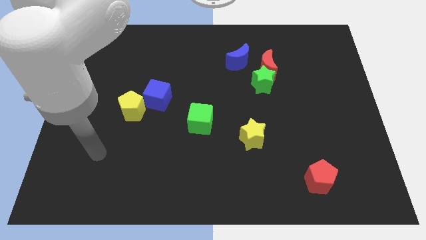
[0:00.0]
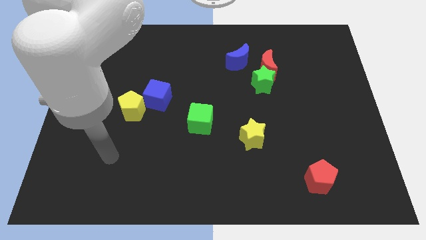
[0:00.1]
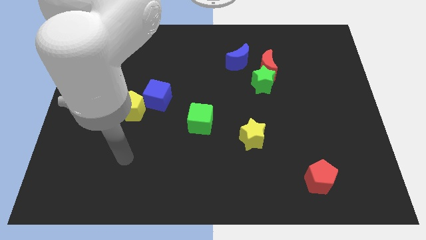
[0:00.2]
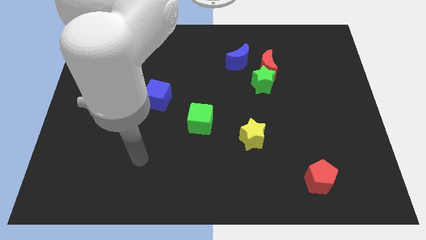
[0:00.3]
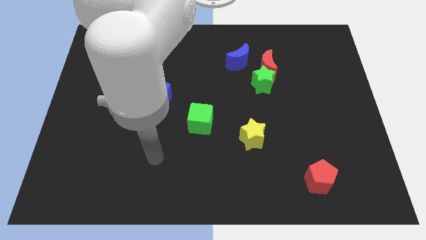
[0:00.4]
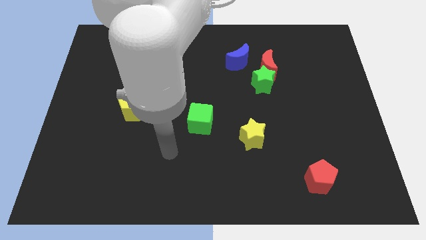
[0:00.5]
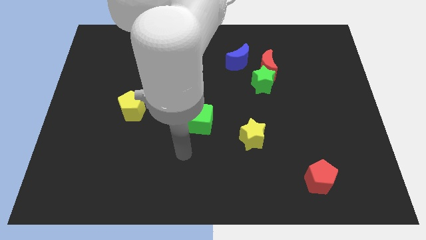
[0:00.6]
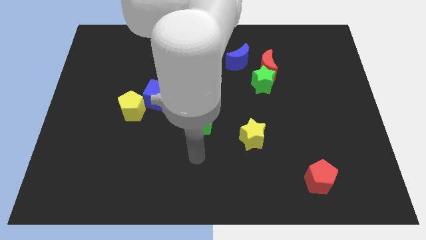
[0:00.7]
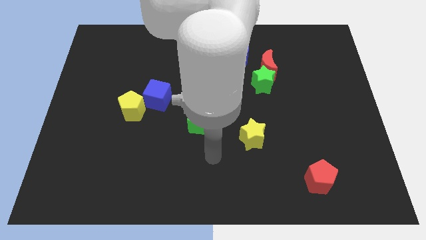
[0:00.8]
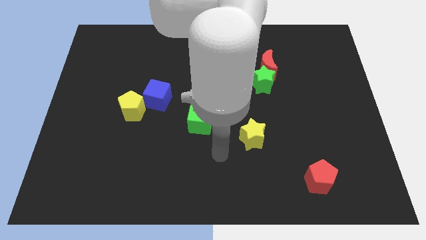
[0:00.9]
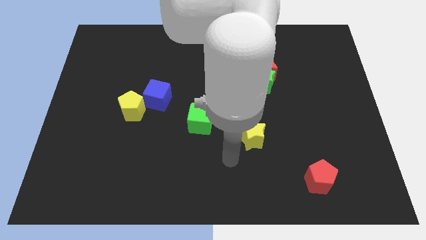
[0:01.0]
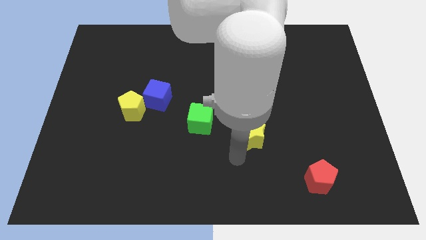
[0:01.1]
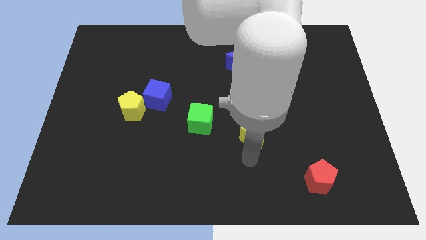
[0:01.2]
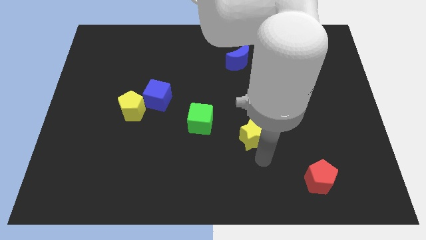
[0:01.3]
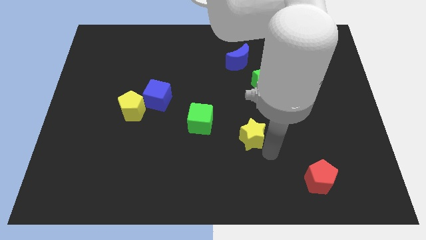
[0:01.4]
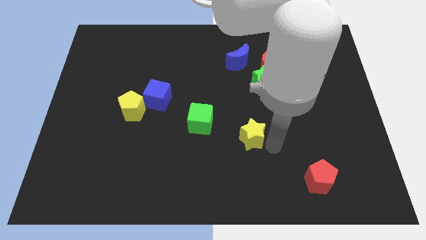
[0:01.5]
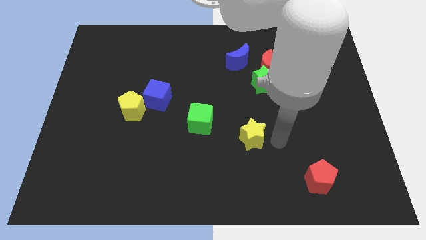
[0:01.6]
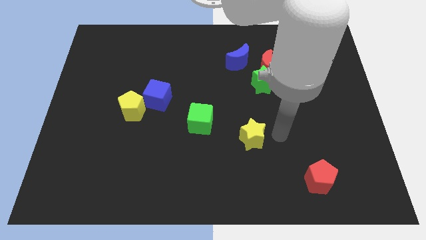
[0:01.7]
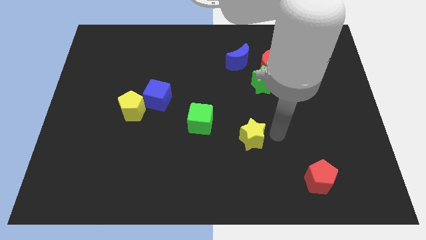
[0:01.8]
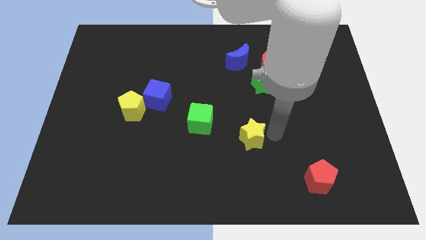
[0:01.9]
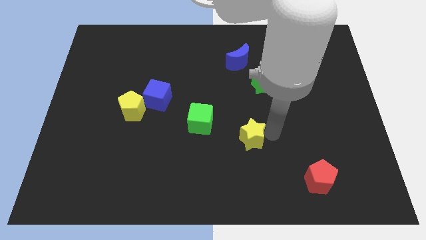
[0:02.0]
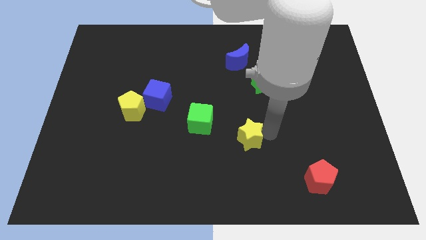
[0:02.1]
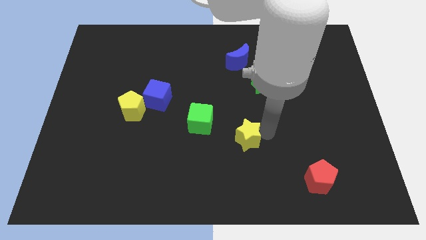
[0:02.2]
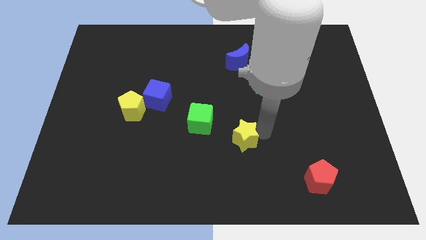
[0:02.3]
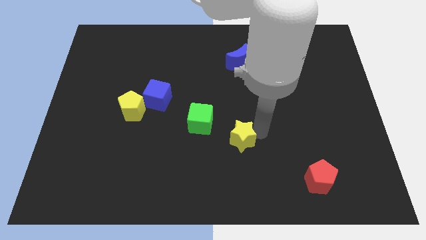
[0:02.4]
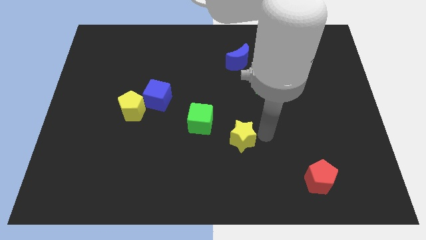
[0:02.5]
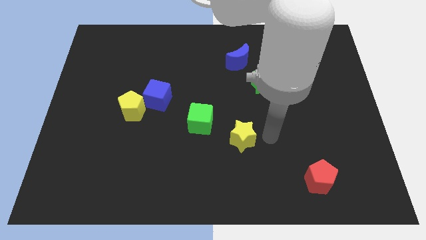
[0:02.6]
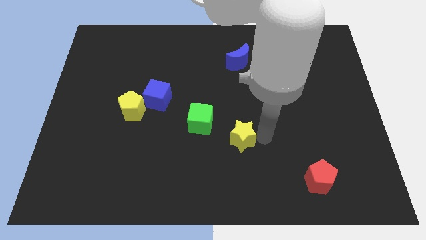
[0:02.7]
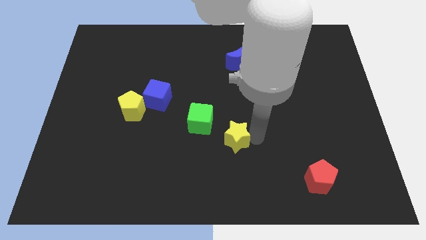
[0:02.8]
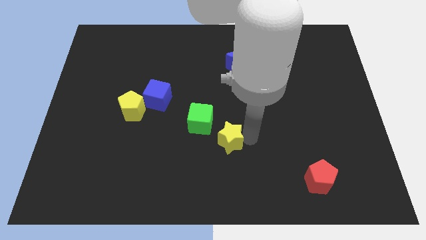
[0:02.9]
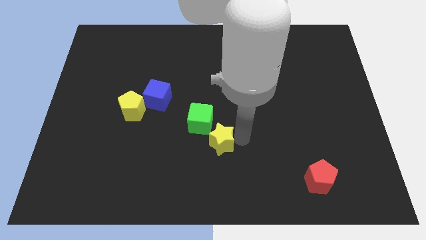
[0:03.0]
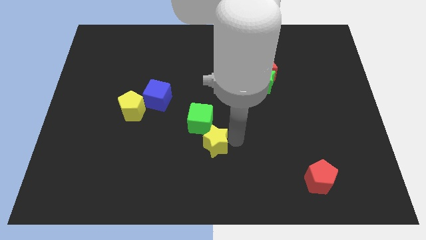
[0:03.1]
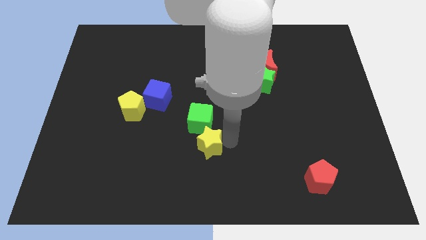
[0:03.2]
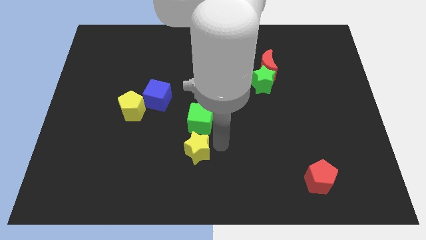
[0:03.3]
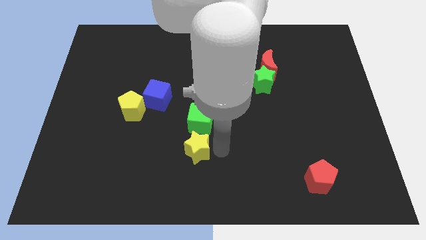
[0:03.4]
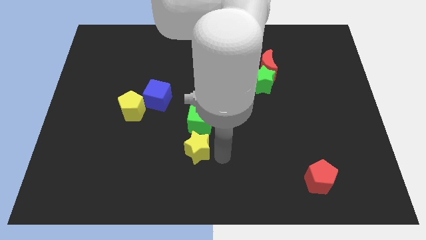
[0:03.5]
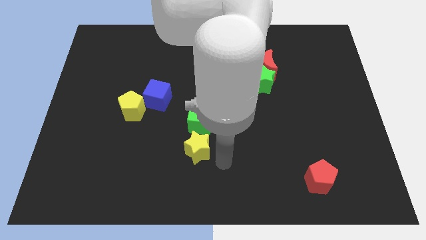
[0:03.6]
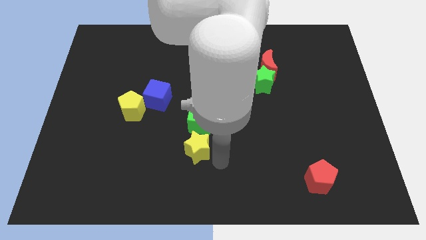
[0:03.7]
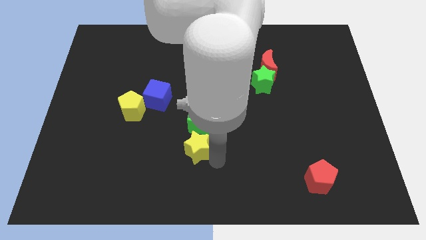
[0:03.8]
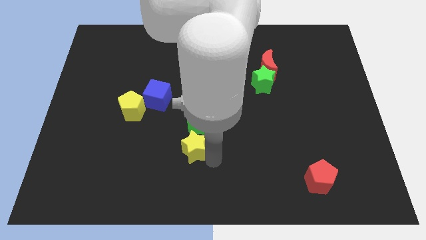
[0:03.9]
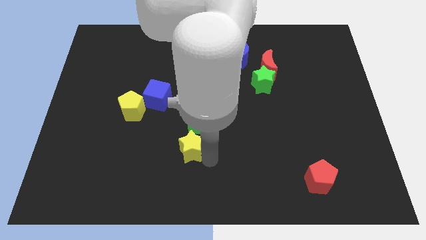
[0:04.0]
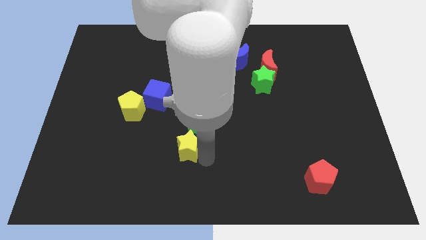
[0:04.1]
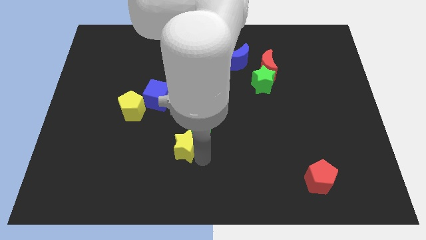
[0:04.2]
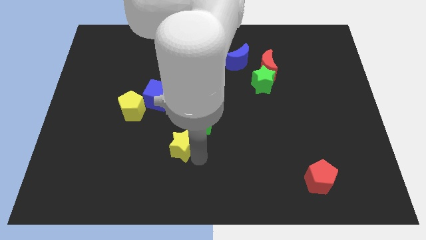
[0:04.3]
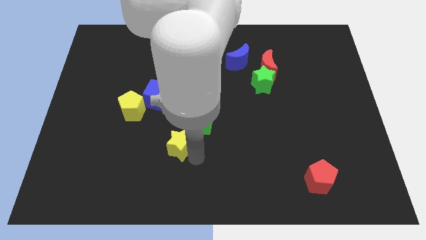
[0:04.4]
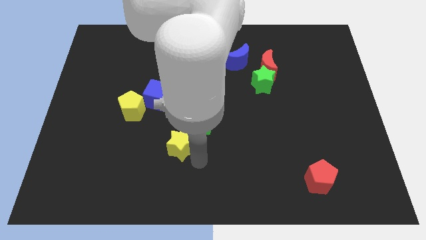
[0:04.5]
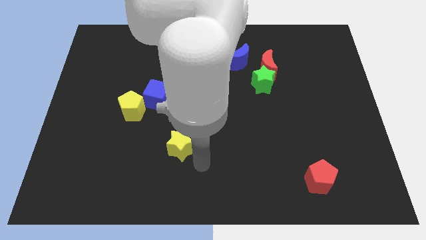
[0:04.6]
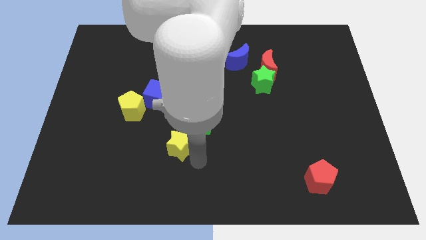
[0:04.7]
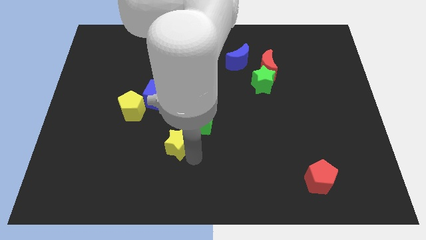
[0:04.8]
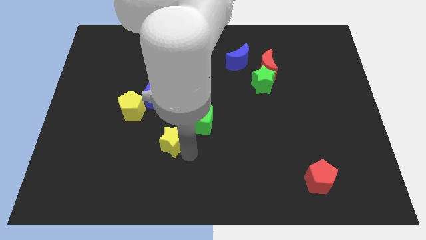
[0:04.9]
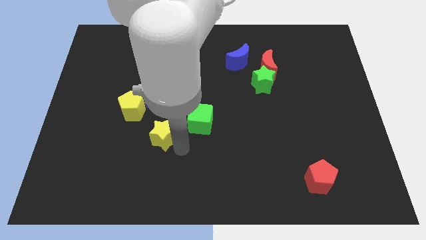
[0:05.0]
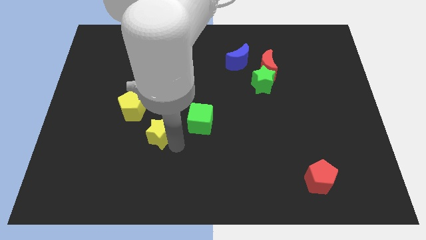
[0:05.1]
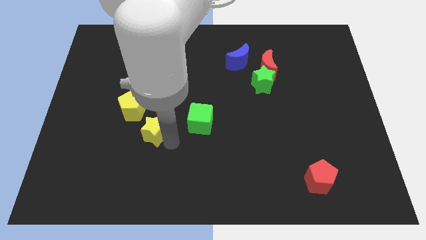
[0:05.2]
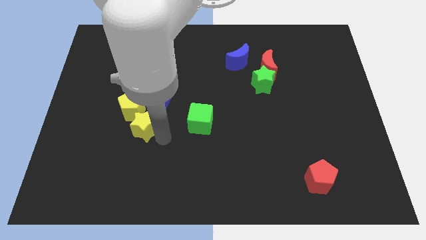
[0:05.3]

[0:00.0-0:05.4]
move the yellow star close to the yellow pentagon

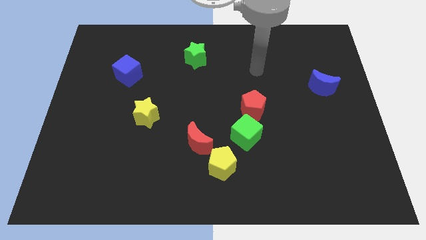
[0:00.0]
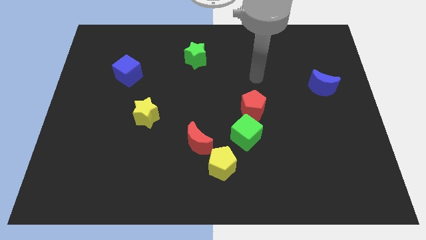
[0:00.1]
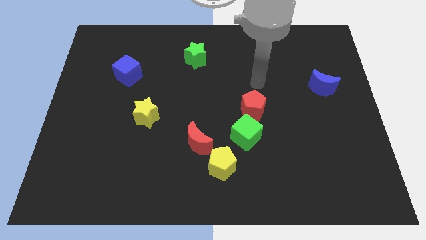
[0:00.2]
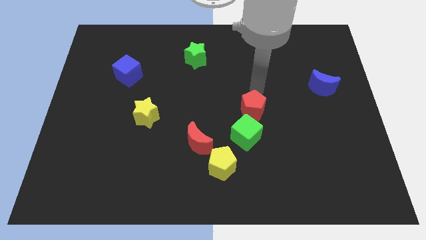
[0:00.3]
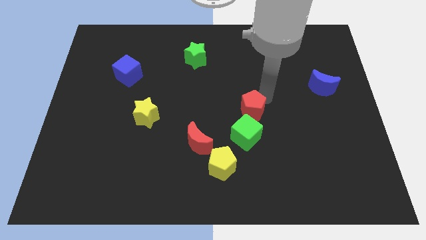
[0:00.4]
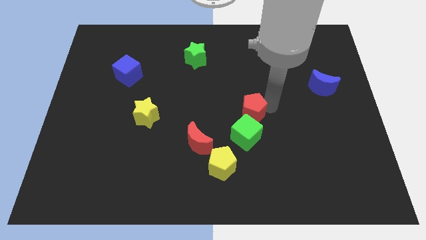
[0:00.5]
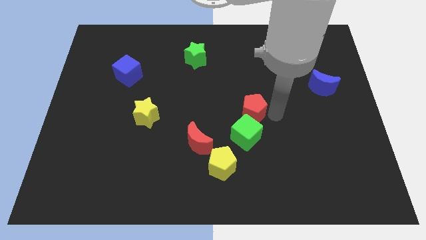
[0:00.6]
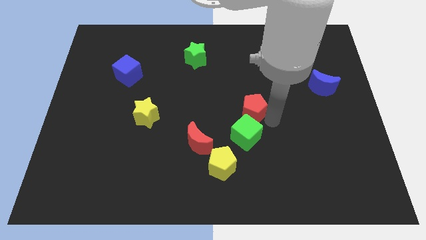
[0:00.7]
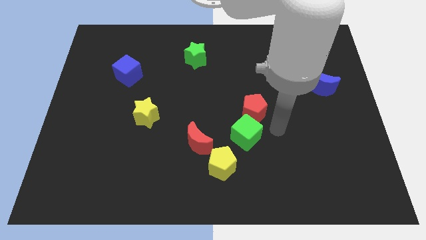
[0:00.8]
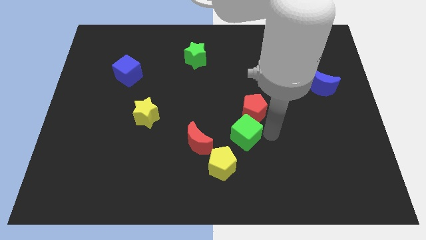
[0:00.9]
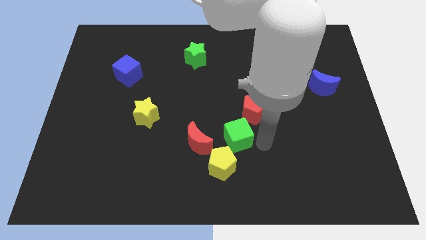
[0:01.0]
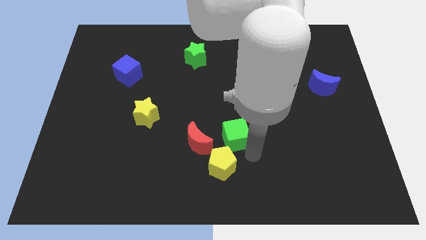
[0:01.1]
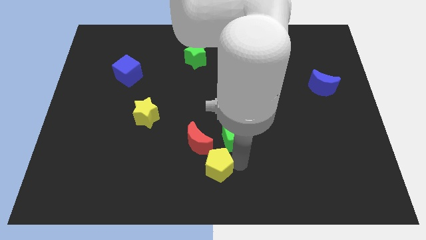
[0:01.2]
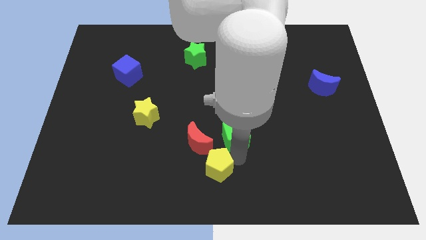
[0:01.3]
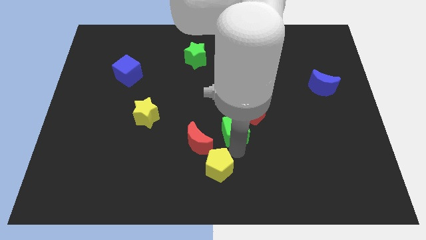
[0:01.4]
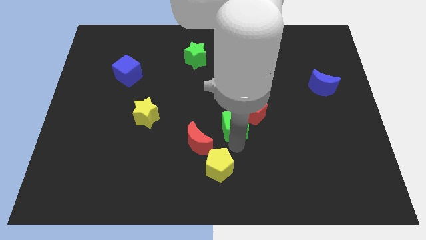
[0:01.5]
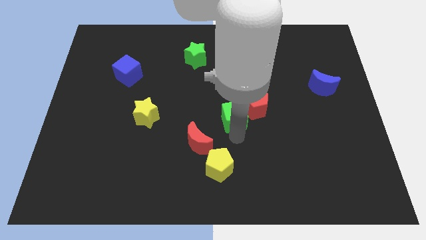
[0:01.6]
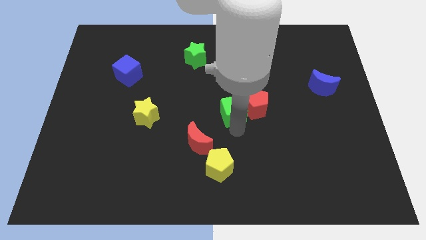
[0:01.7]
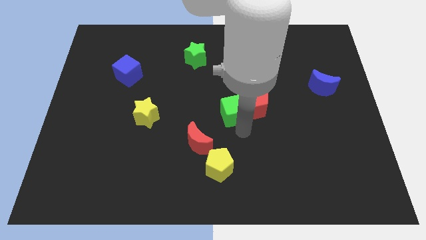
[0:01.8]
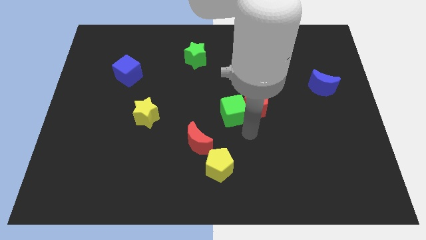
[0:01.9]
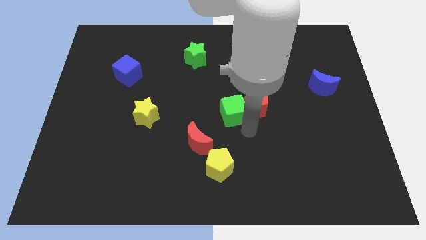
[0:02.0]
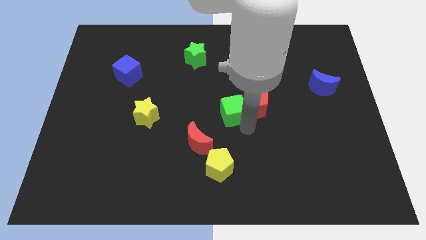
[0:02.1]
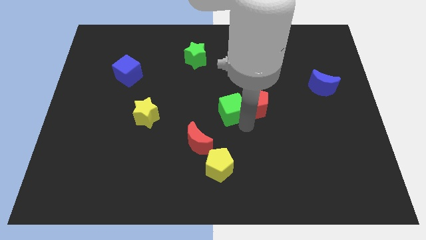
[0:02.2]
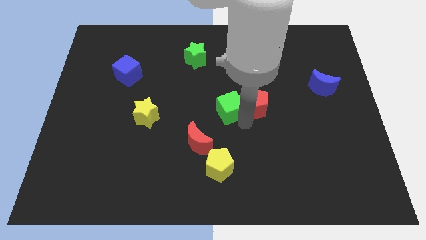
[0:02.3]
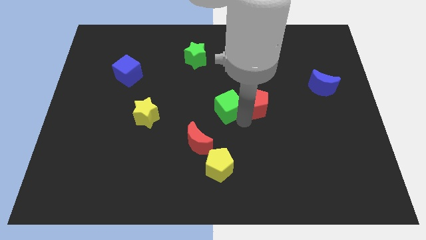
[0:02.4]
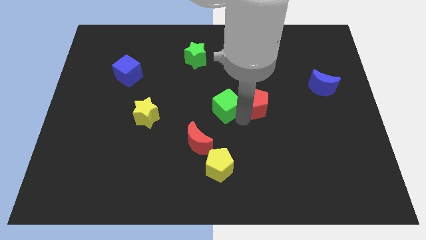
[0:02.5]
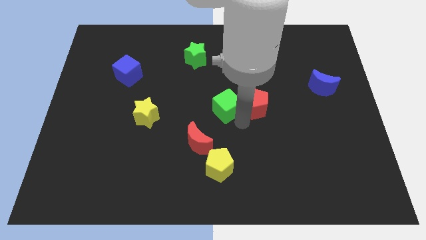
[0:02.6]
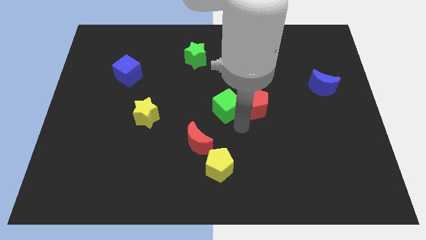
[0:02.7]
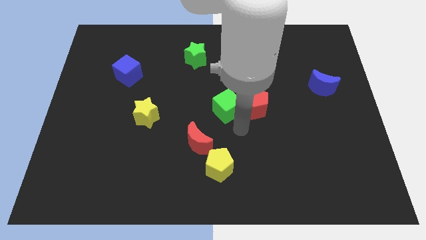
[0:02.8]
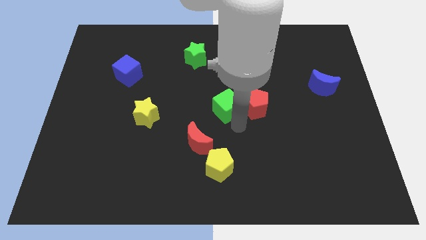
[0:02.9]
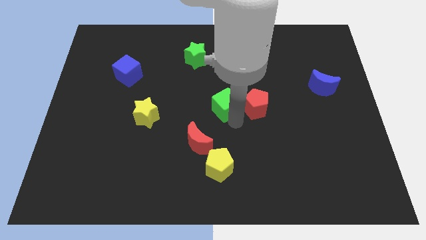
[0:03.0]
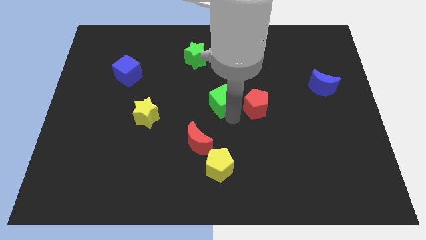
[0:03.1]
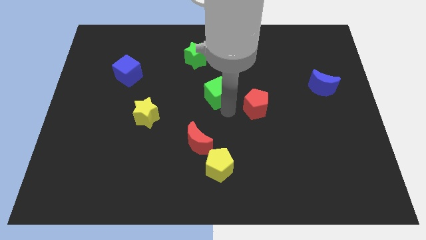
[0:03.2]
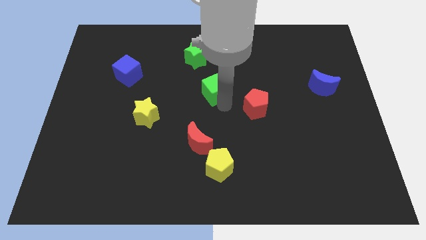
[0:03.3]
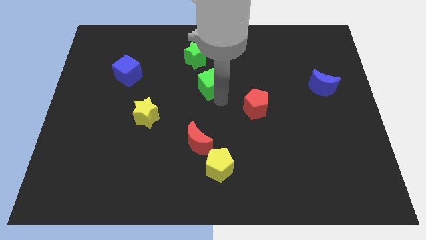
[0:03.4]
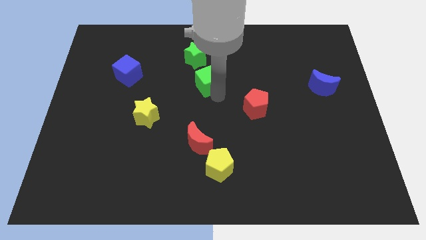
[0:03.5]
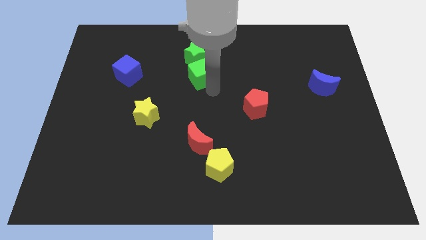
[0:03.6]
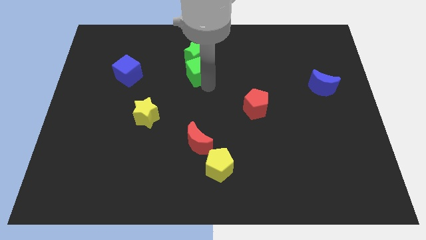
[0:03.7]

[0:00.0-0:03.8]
move the green cube to the green star
